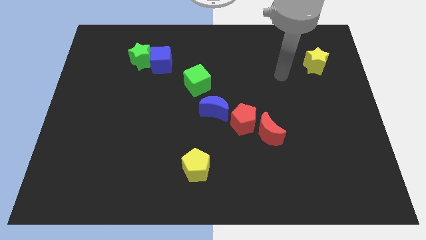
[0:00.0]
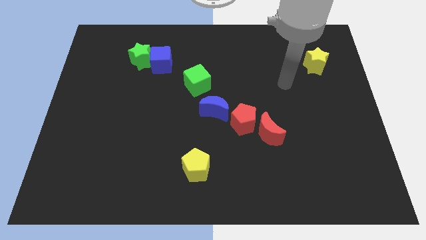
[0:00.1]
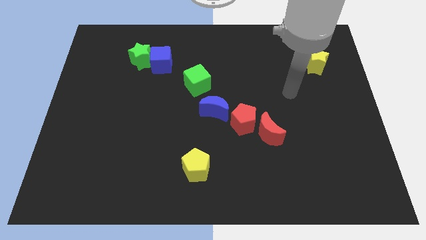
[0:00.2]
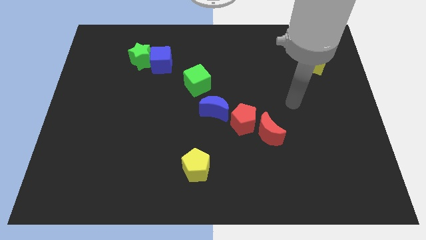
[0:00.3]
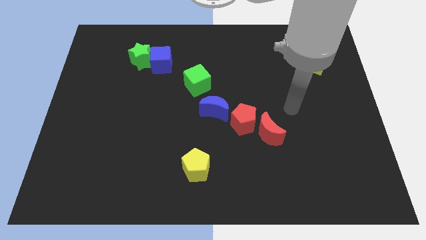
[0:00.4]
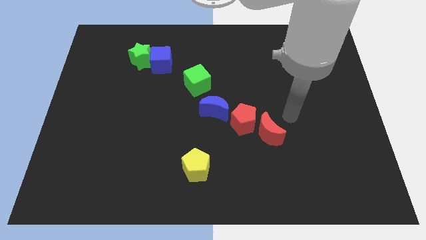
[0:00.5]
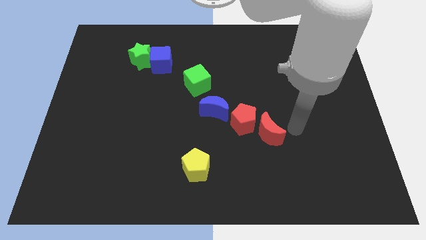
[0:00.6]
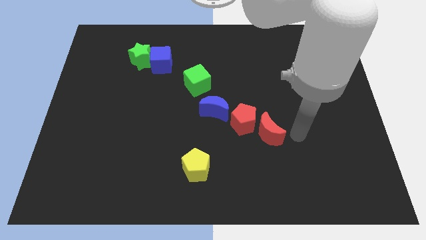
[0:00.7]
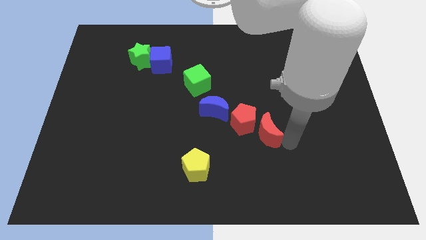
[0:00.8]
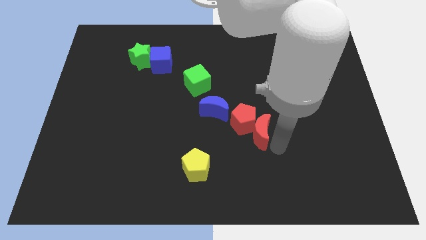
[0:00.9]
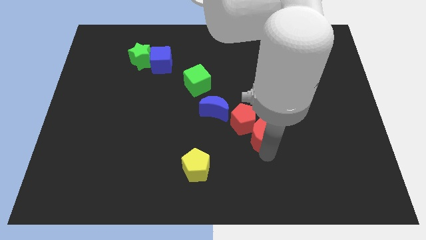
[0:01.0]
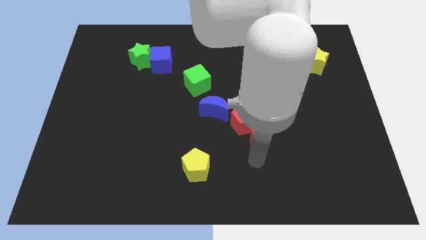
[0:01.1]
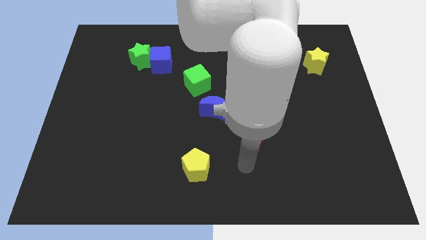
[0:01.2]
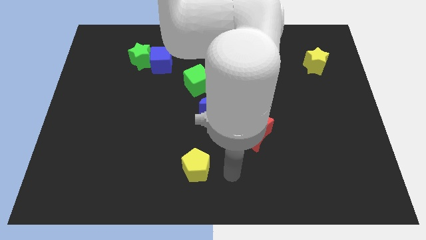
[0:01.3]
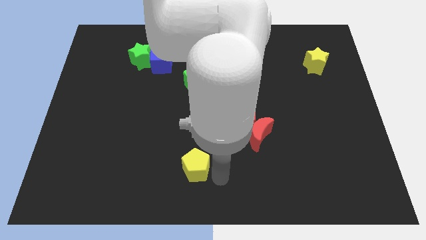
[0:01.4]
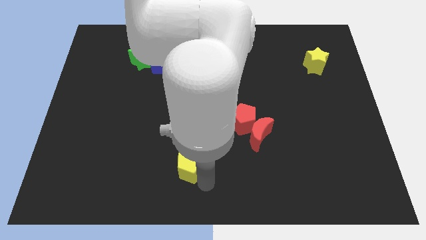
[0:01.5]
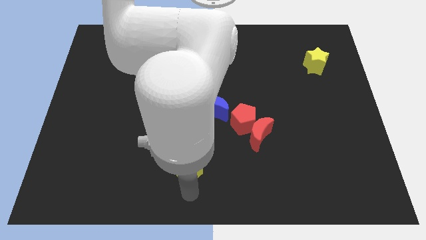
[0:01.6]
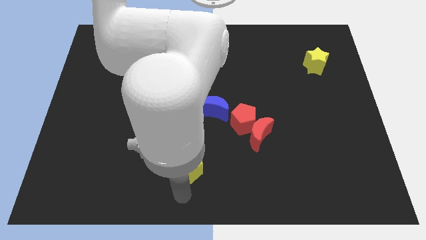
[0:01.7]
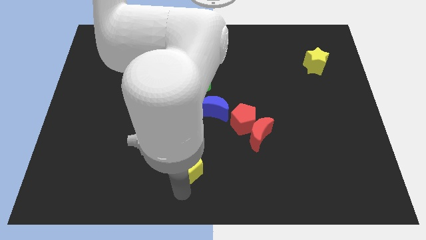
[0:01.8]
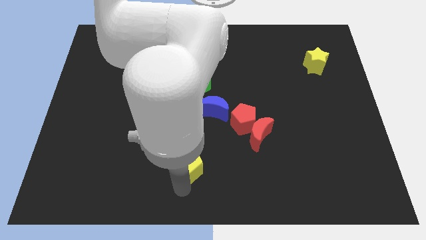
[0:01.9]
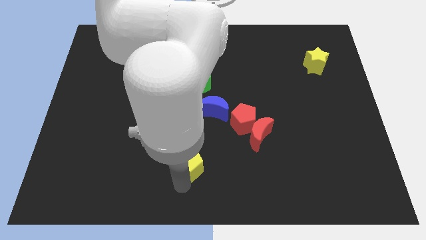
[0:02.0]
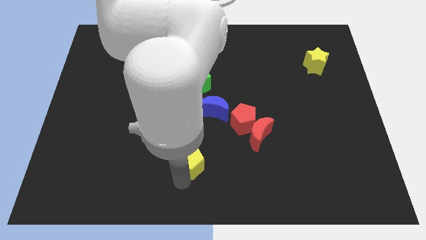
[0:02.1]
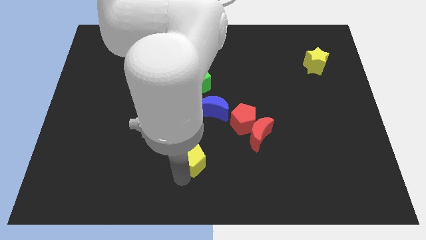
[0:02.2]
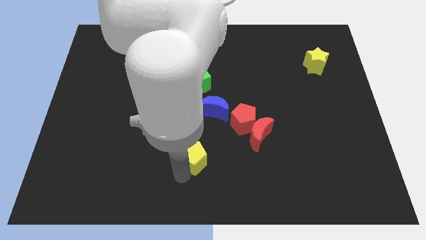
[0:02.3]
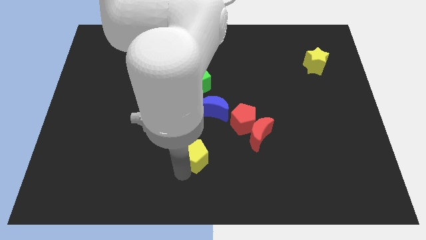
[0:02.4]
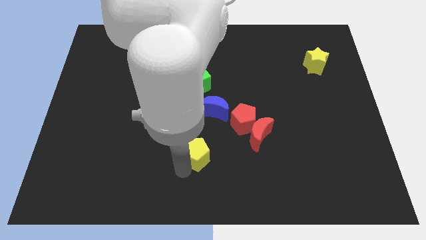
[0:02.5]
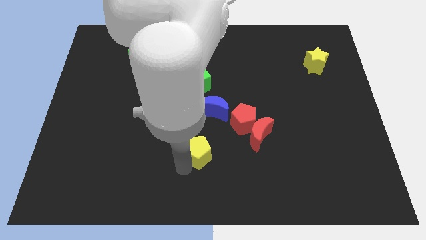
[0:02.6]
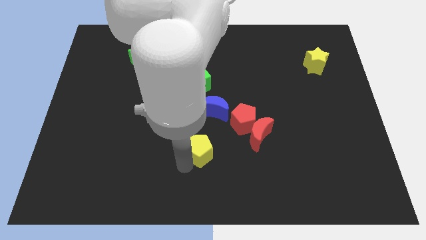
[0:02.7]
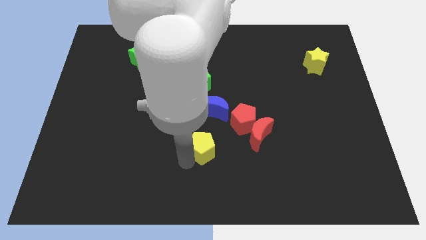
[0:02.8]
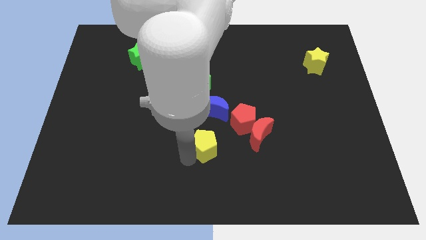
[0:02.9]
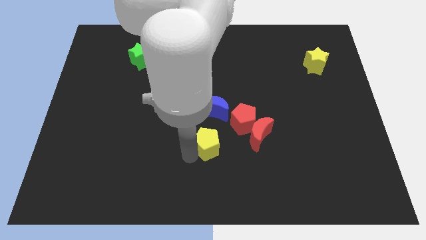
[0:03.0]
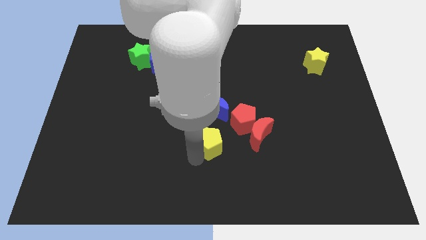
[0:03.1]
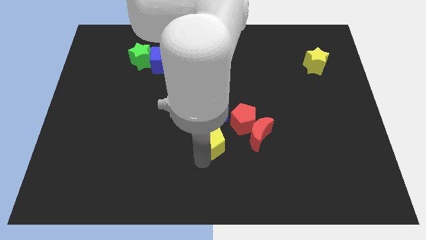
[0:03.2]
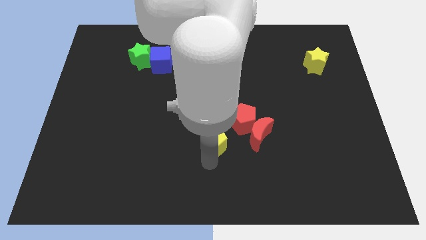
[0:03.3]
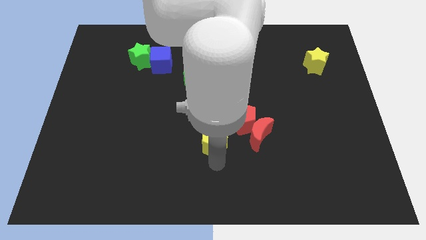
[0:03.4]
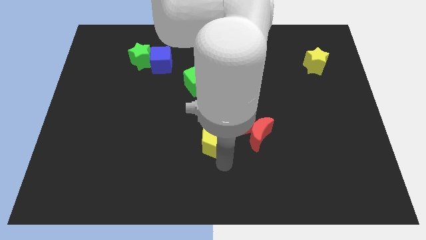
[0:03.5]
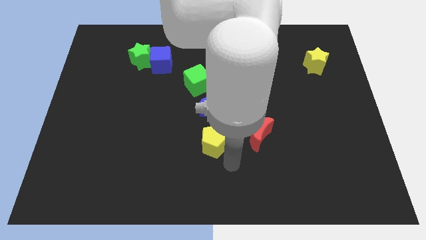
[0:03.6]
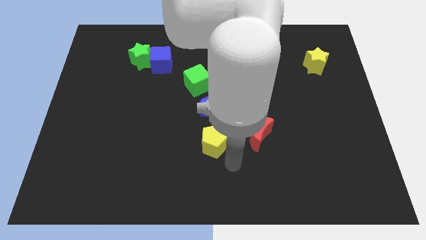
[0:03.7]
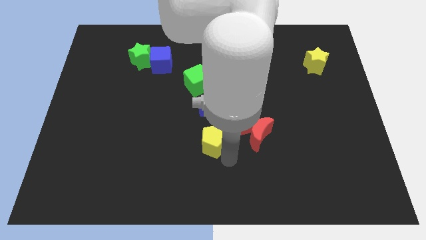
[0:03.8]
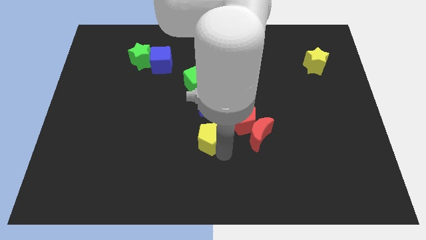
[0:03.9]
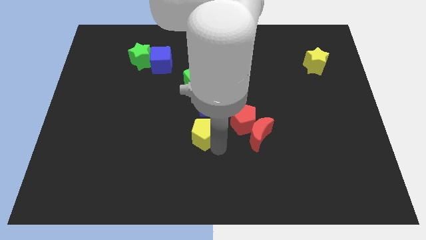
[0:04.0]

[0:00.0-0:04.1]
move the yellow pentagon upwards somewhat

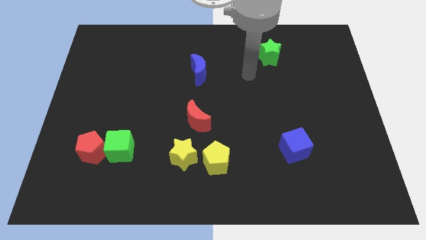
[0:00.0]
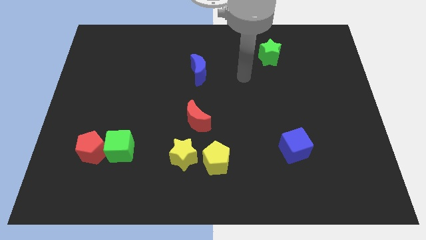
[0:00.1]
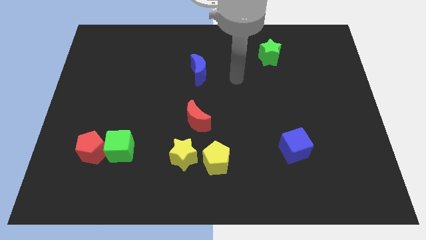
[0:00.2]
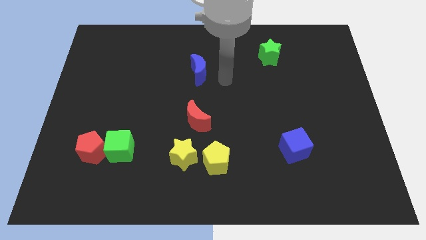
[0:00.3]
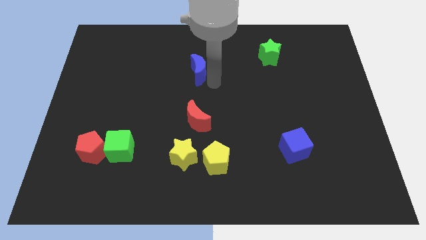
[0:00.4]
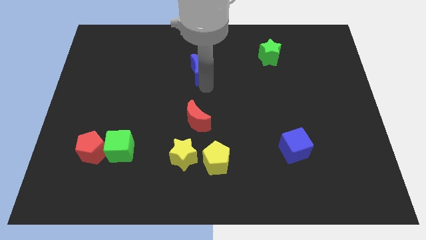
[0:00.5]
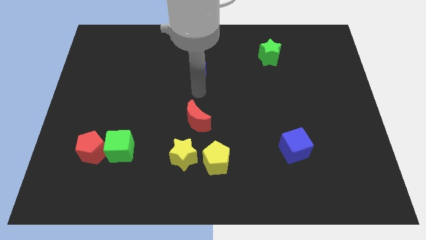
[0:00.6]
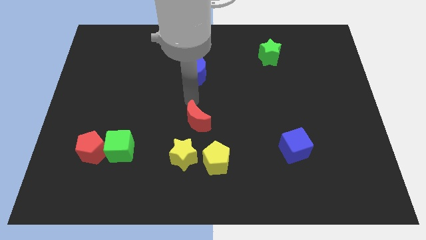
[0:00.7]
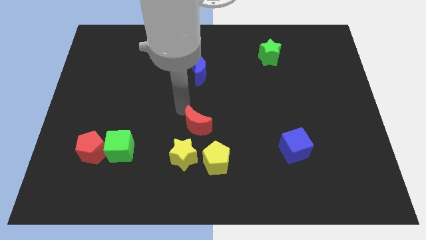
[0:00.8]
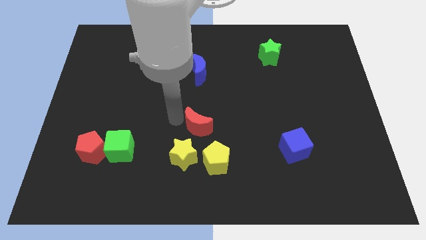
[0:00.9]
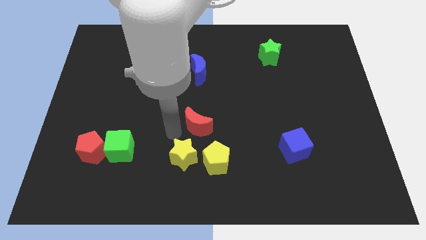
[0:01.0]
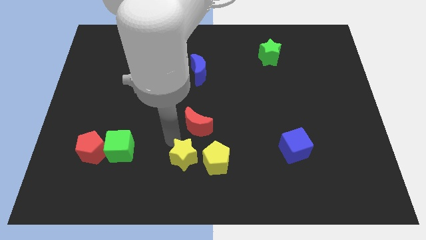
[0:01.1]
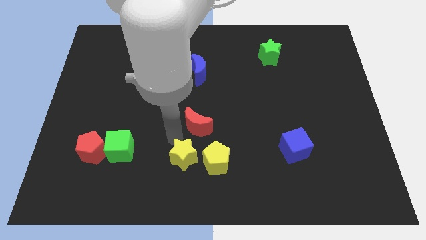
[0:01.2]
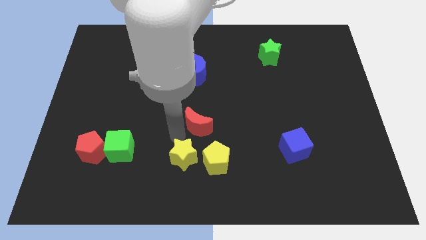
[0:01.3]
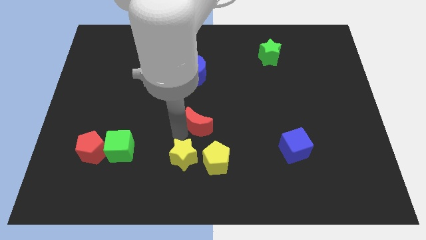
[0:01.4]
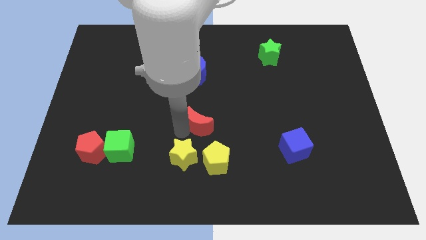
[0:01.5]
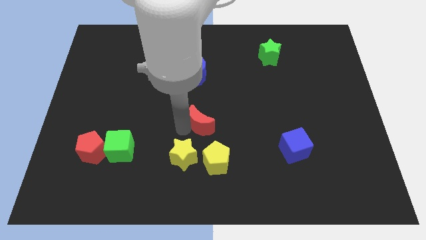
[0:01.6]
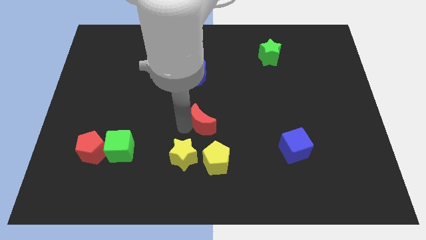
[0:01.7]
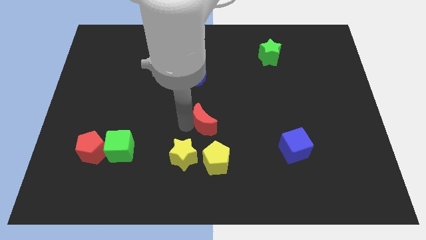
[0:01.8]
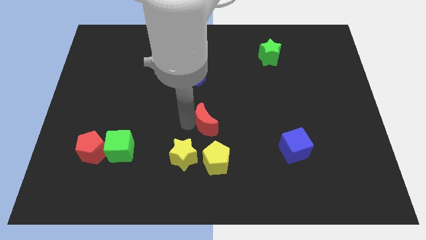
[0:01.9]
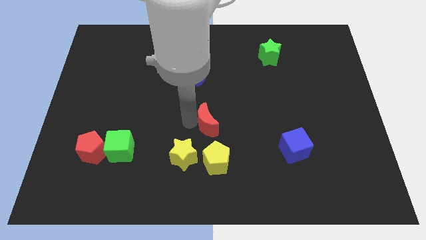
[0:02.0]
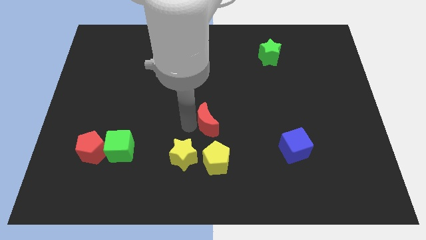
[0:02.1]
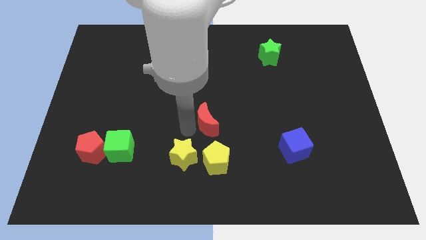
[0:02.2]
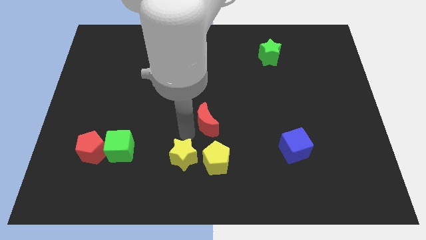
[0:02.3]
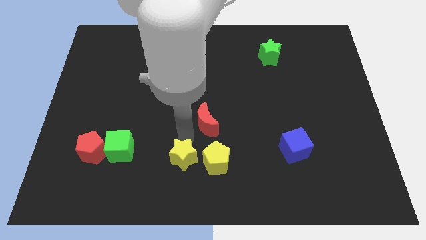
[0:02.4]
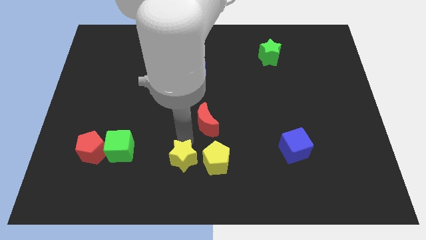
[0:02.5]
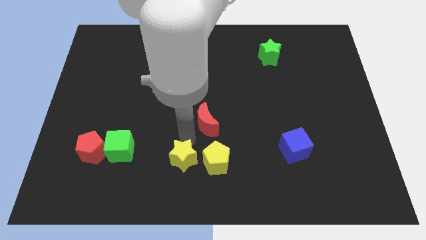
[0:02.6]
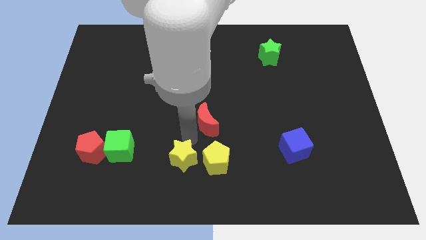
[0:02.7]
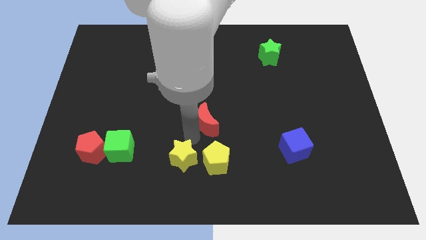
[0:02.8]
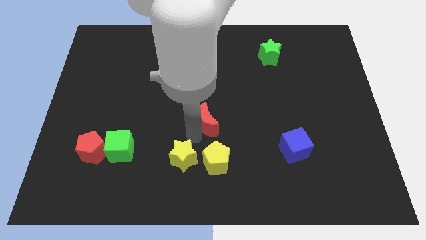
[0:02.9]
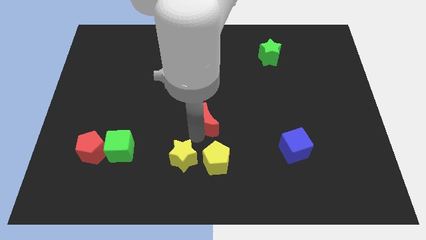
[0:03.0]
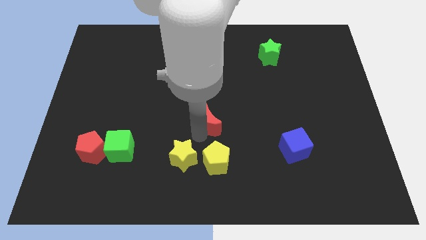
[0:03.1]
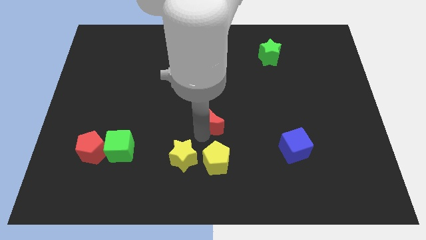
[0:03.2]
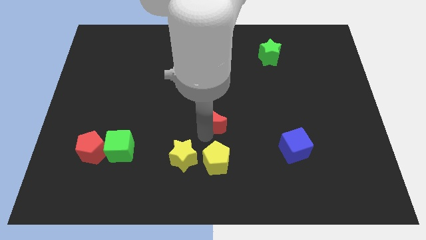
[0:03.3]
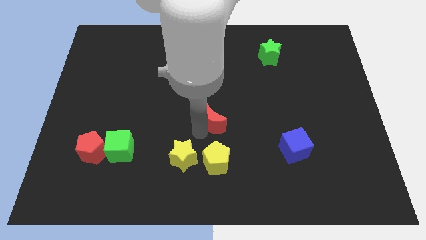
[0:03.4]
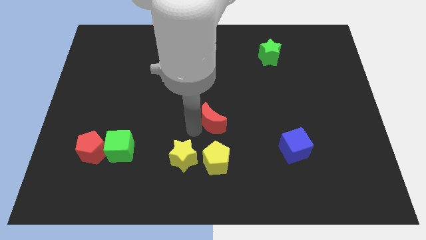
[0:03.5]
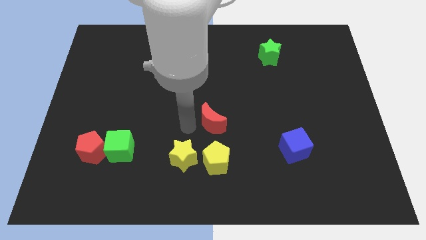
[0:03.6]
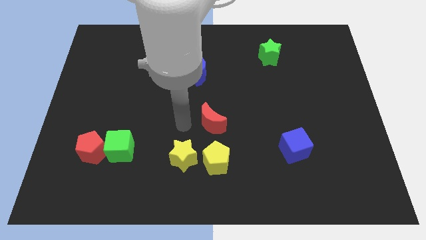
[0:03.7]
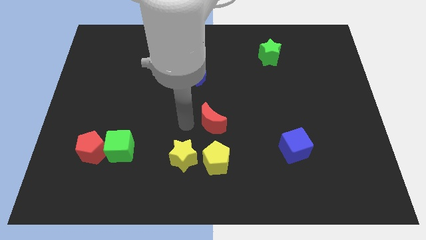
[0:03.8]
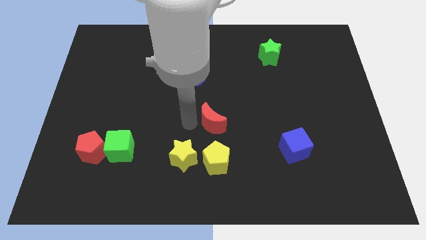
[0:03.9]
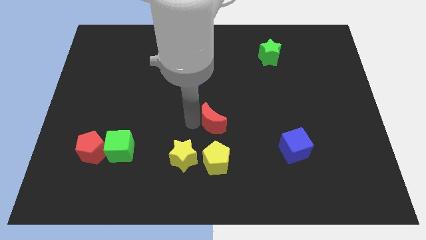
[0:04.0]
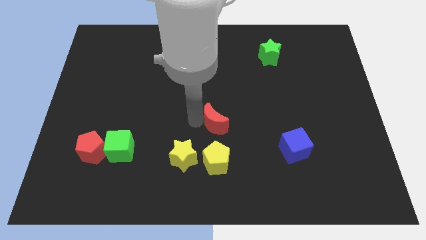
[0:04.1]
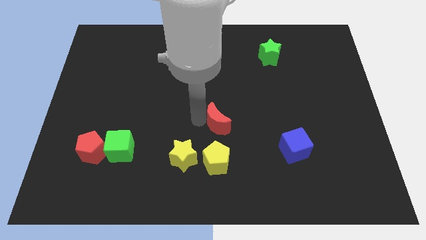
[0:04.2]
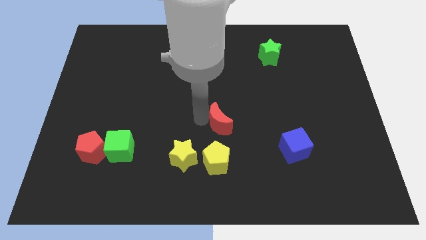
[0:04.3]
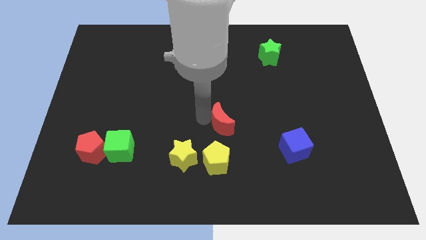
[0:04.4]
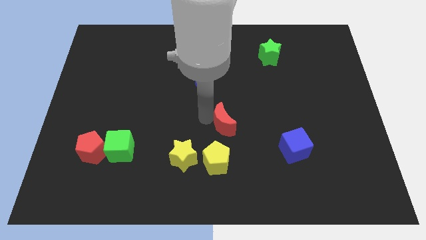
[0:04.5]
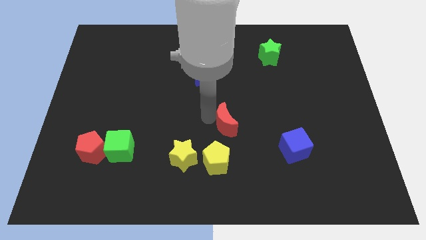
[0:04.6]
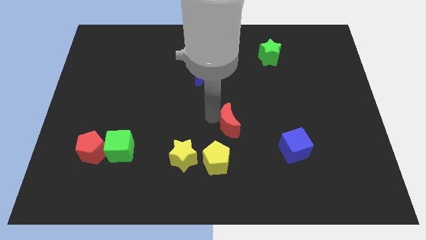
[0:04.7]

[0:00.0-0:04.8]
move the red moon a little bit right
